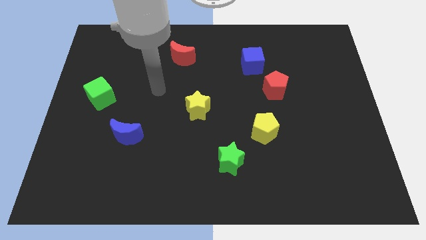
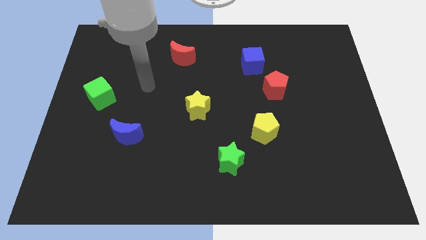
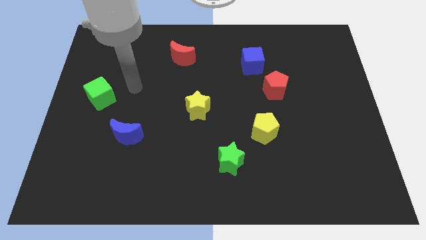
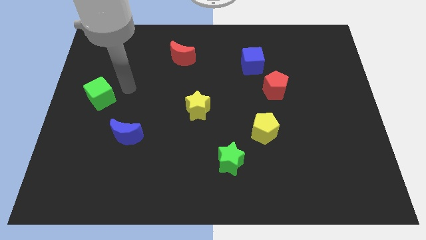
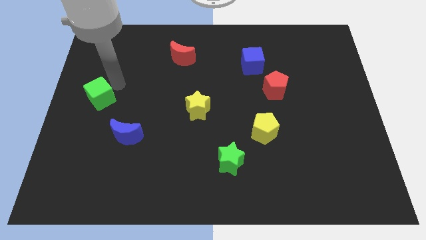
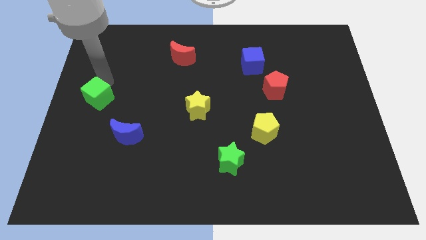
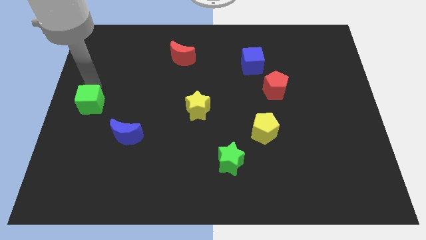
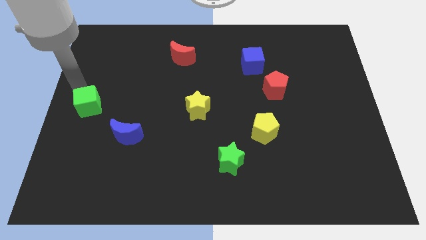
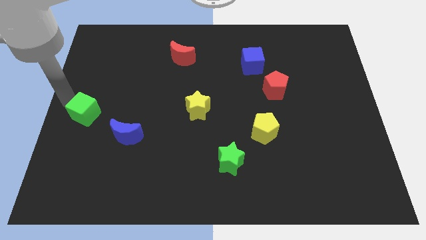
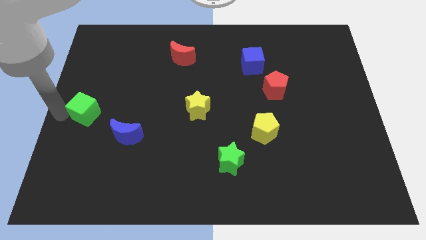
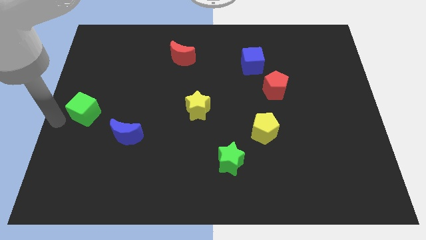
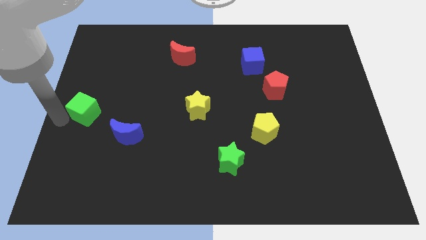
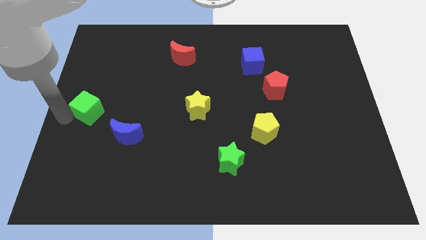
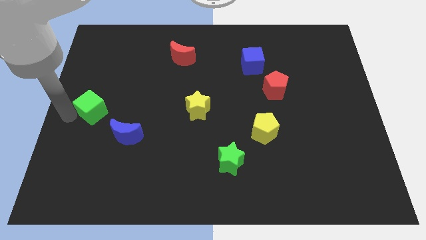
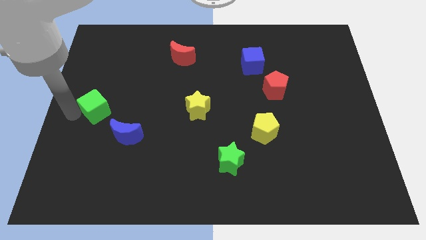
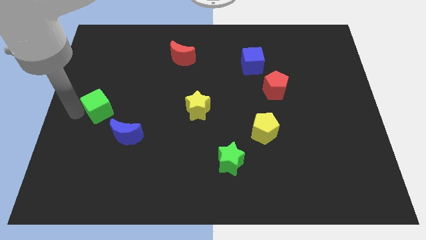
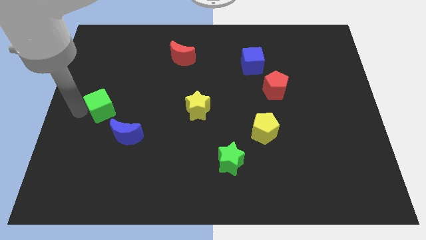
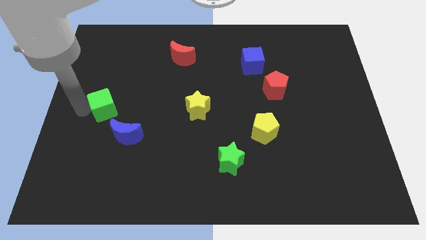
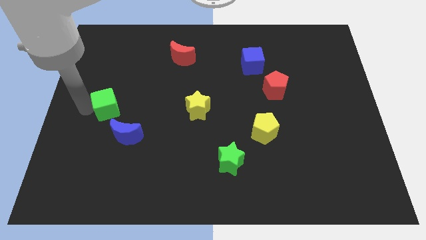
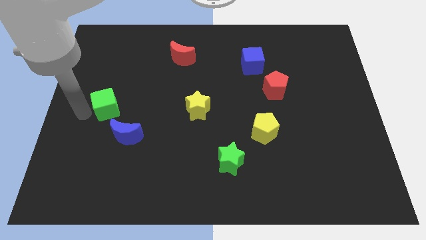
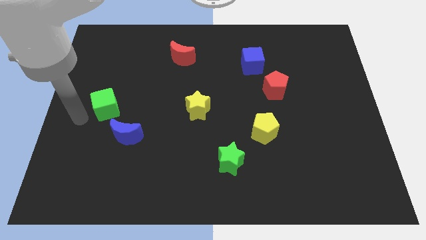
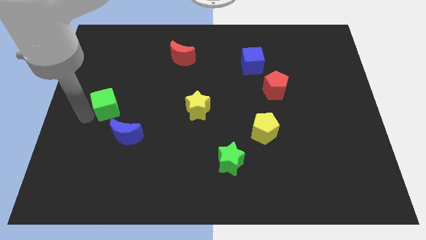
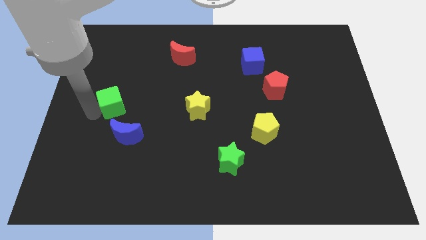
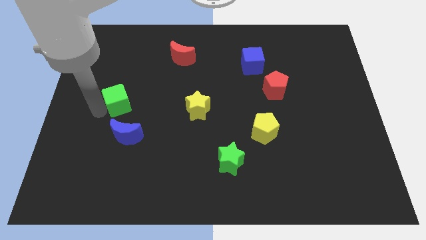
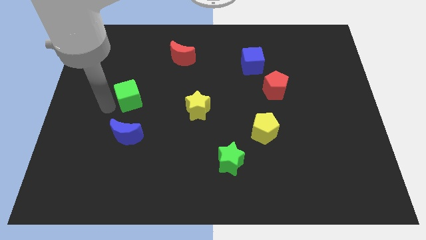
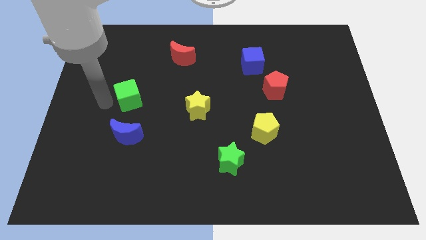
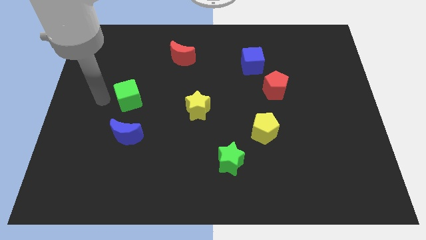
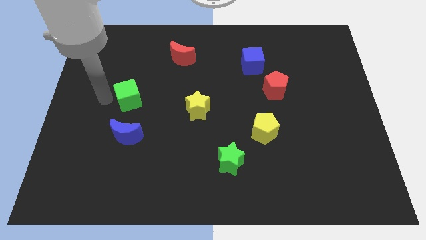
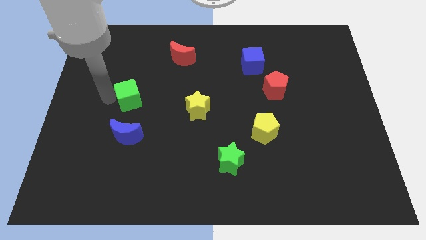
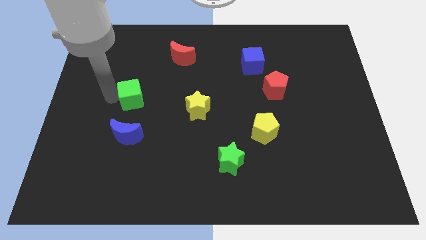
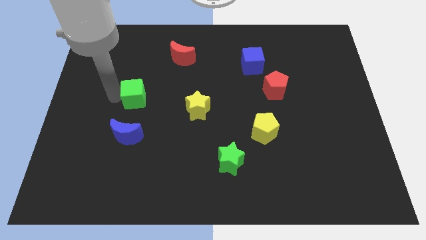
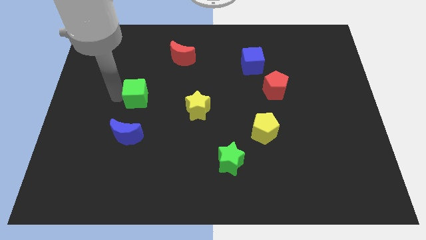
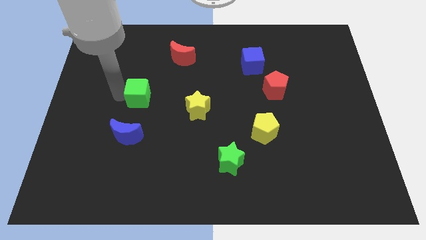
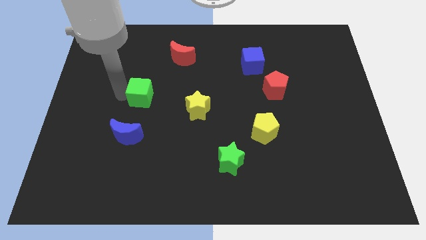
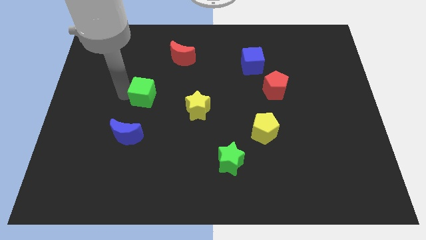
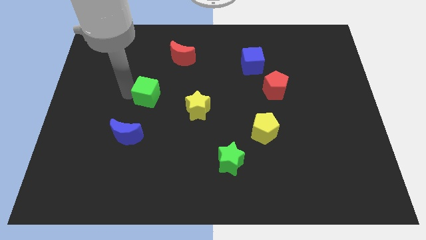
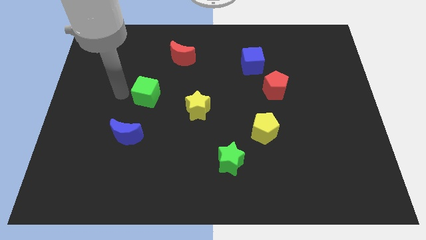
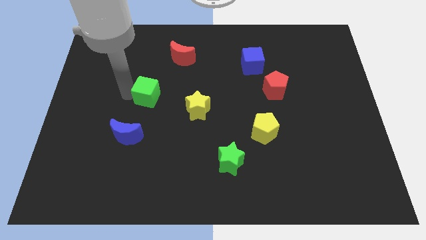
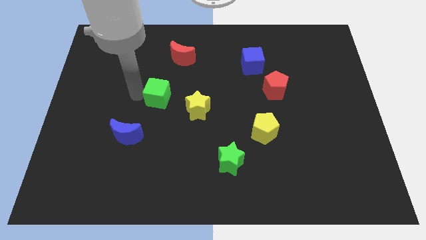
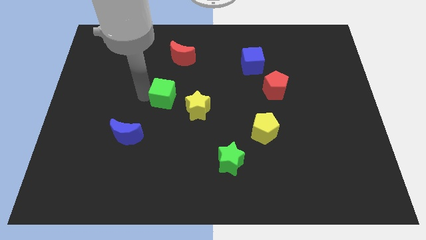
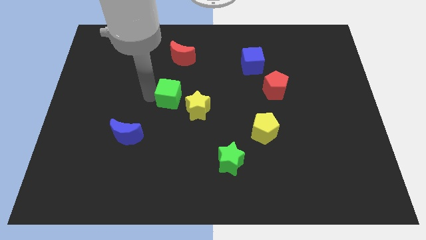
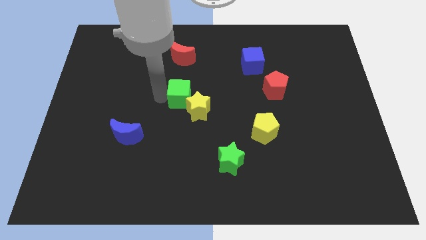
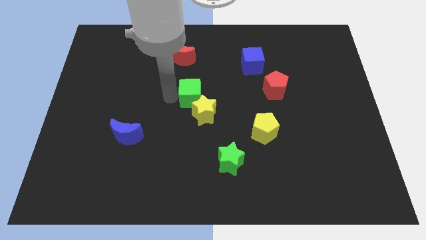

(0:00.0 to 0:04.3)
move the green cube right

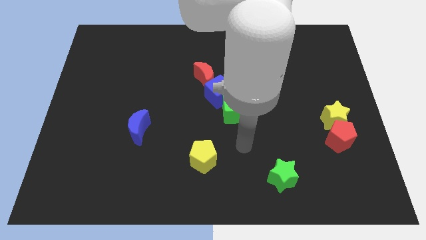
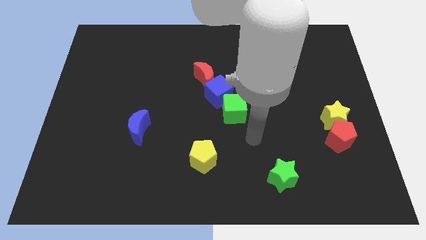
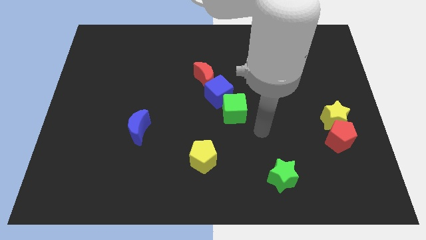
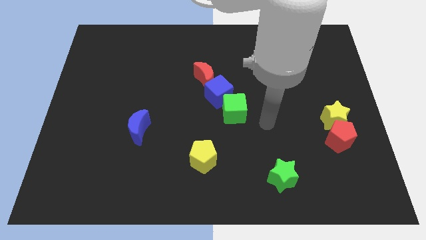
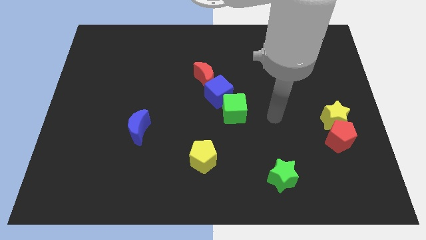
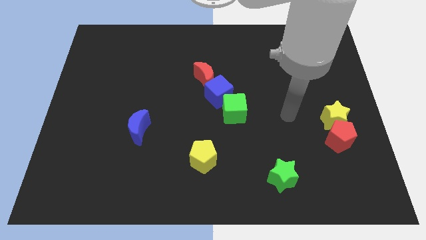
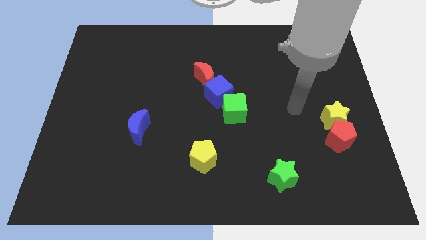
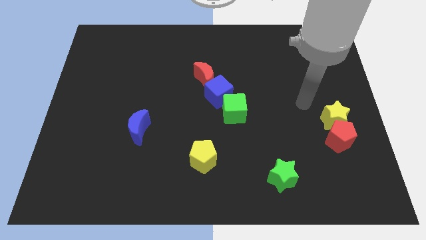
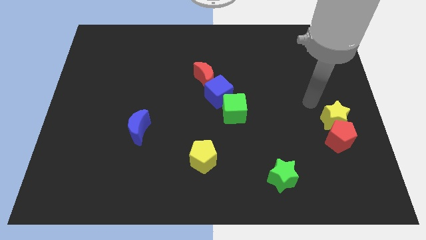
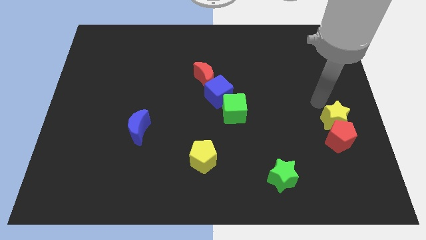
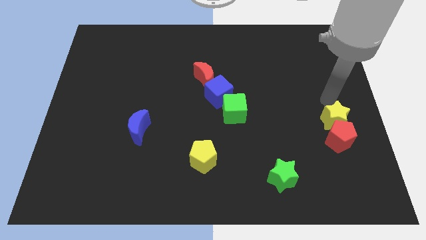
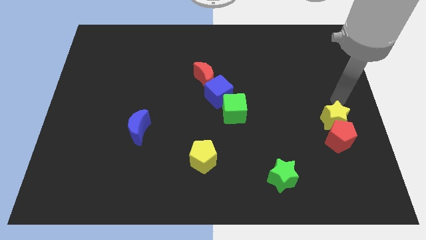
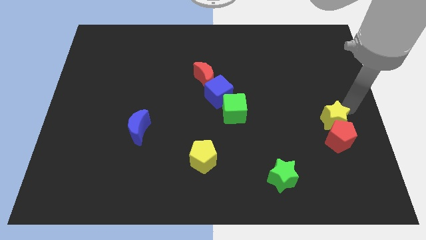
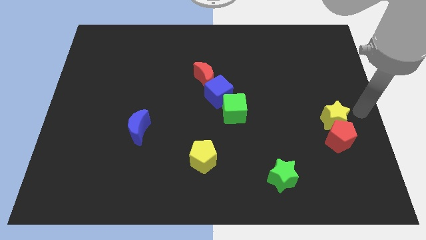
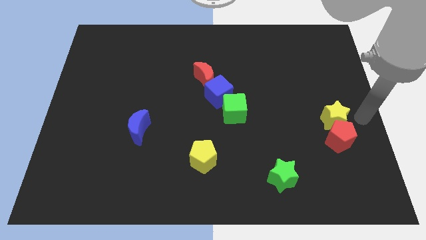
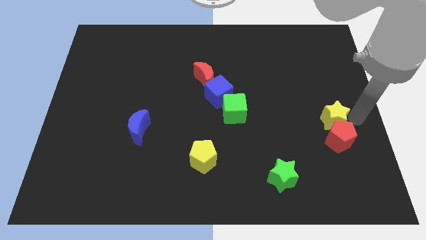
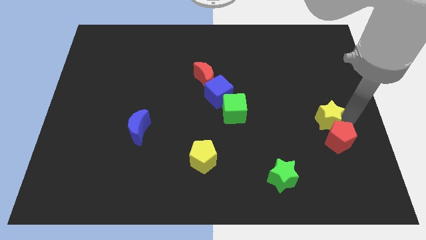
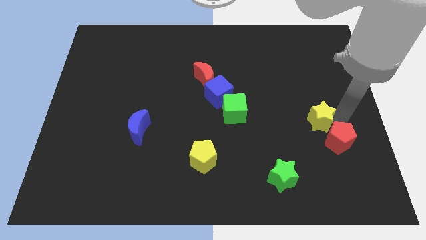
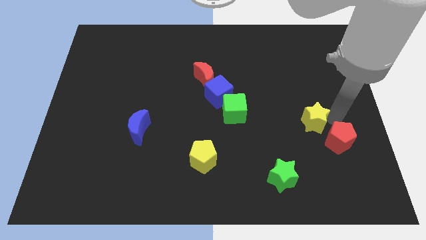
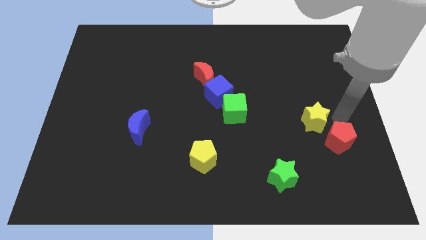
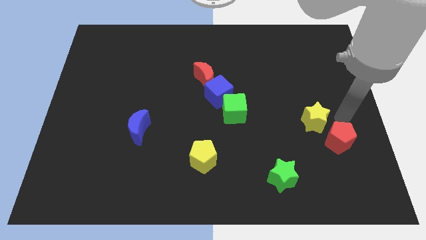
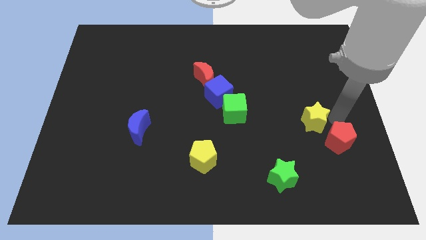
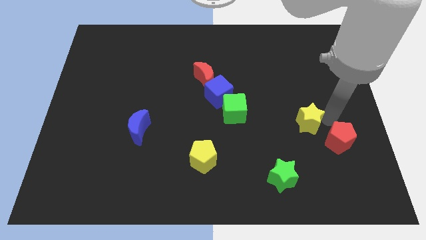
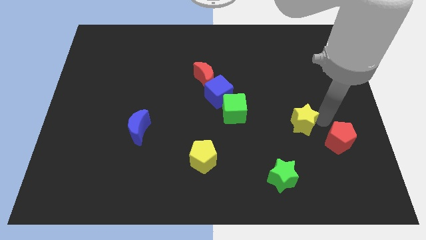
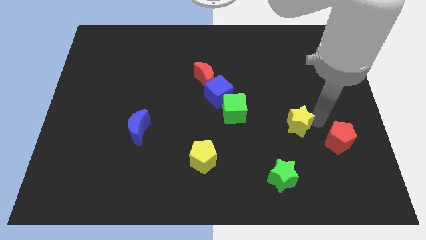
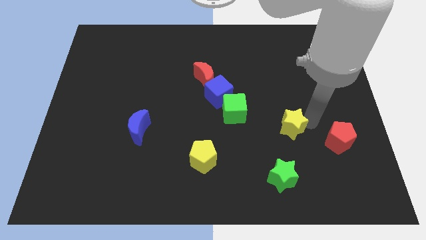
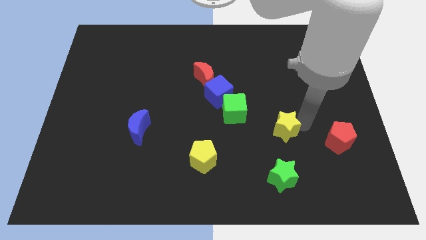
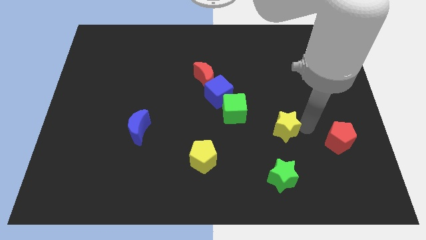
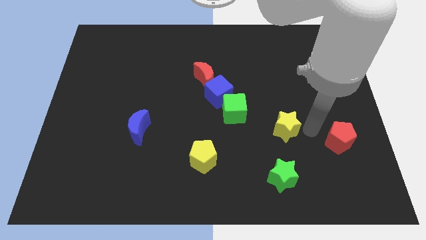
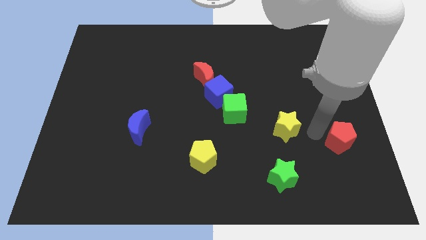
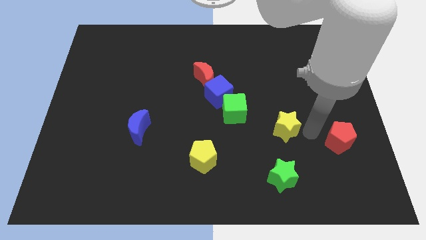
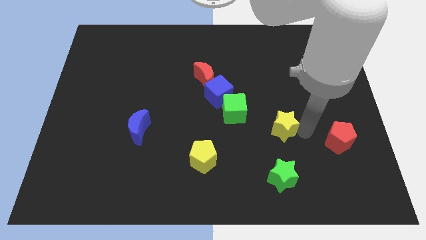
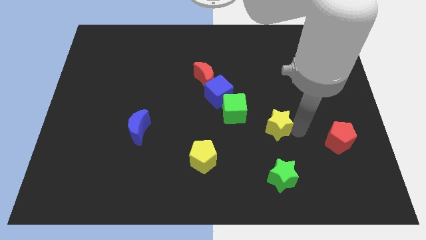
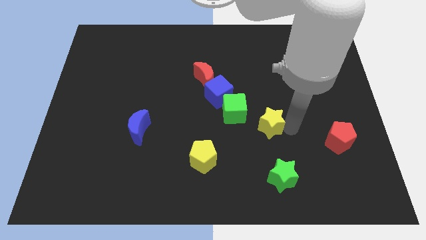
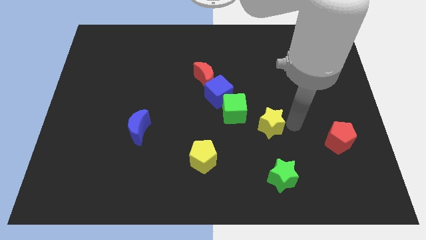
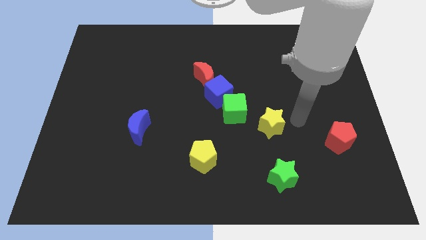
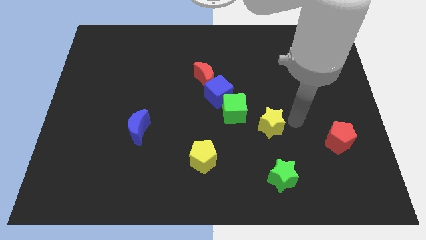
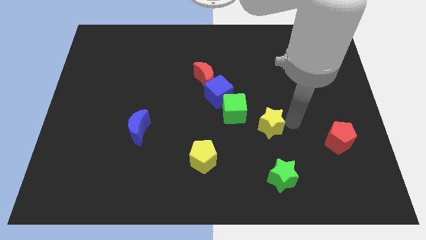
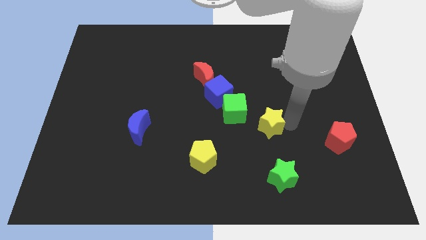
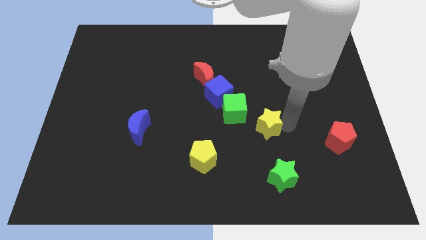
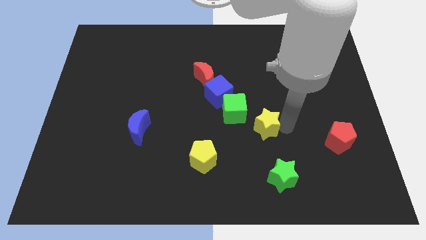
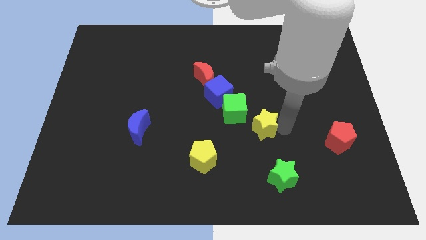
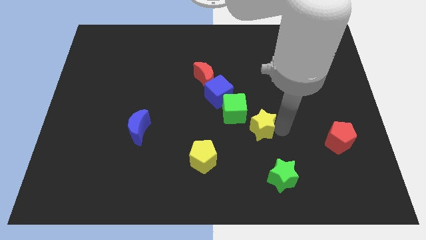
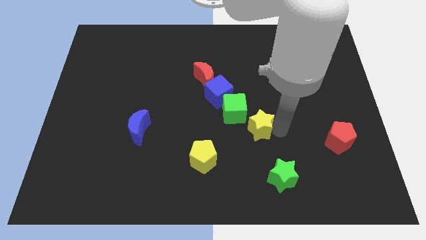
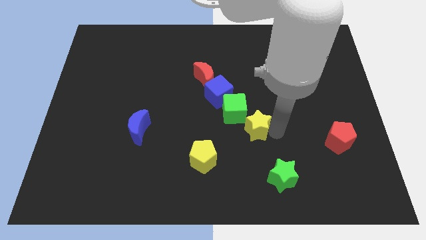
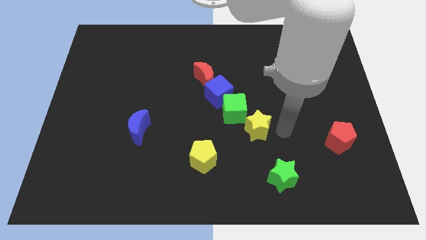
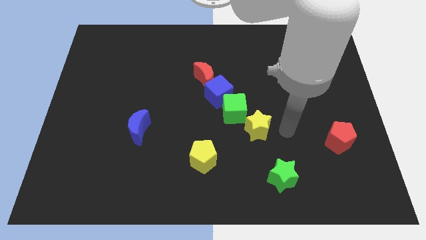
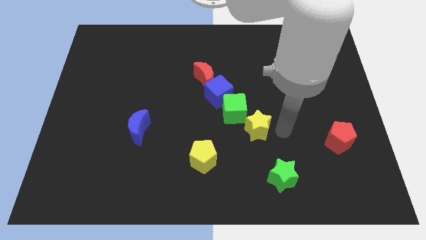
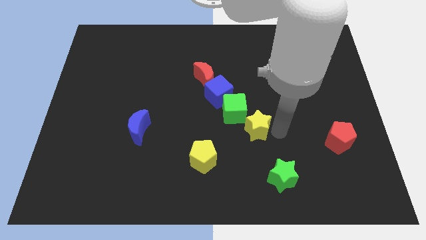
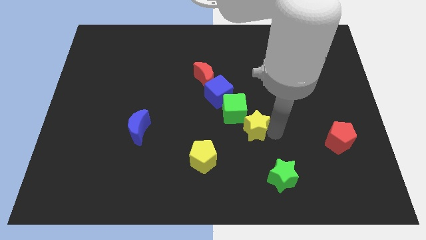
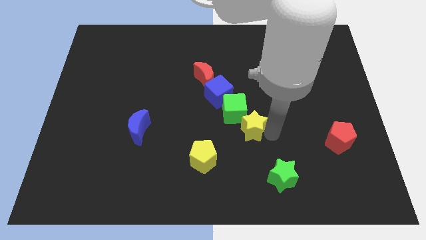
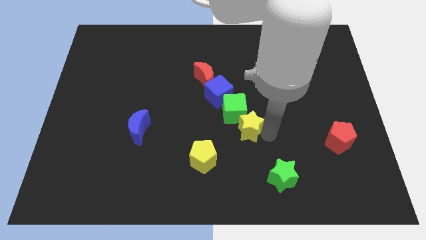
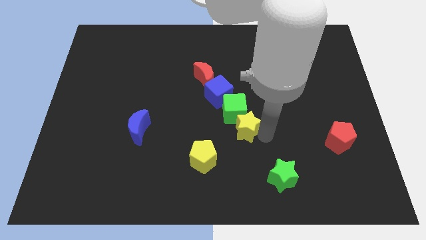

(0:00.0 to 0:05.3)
move the yellow star to the left
